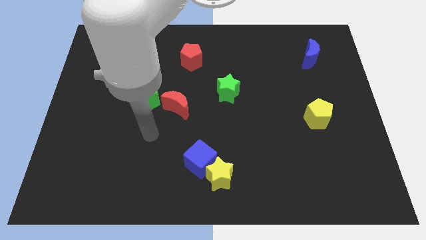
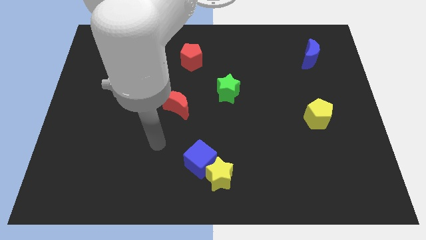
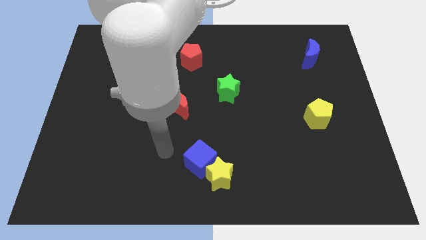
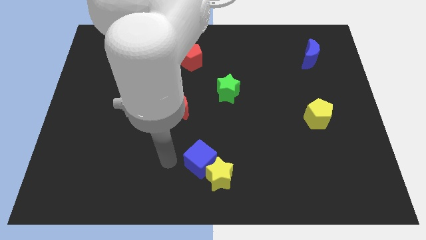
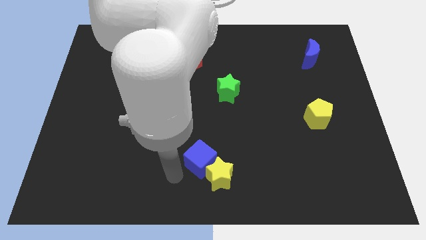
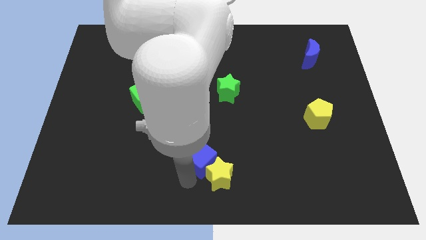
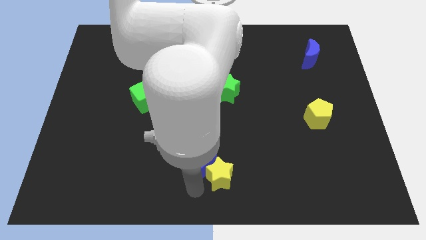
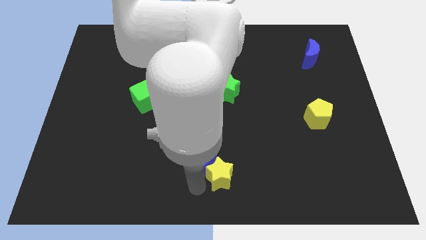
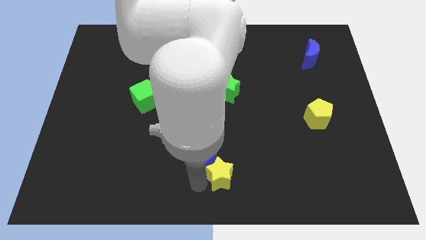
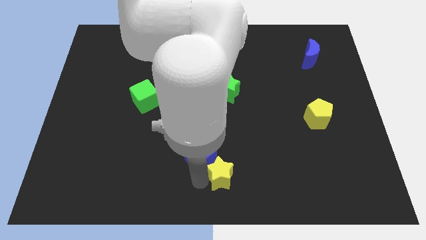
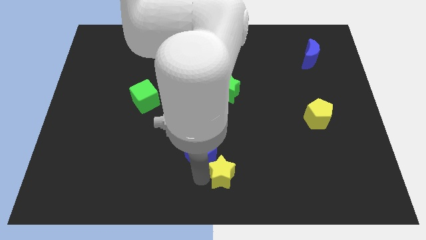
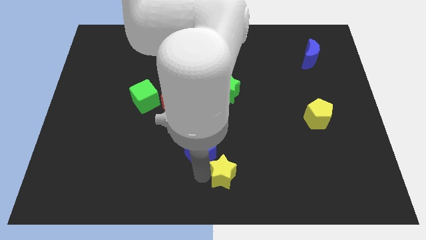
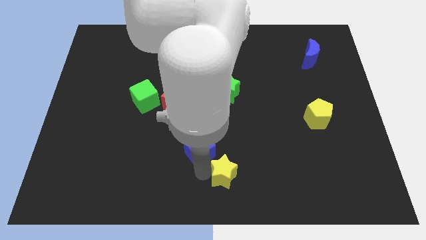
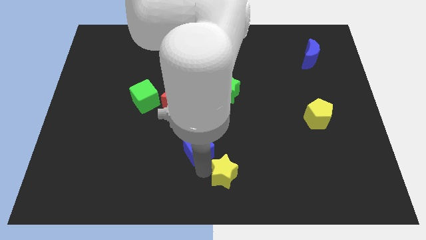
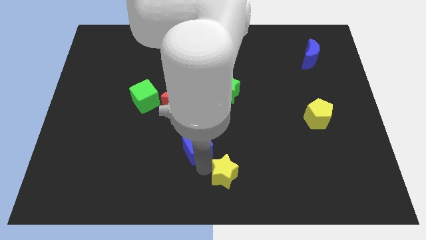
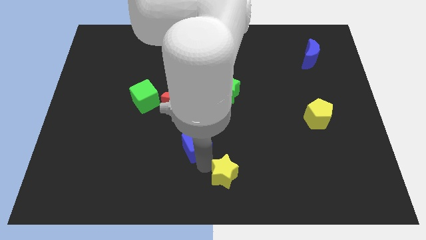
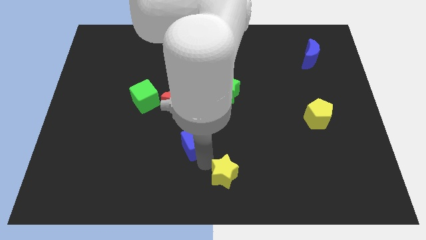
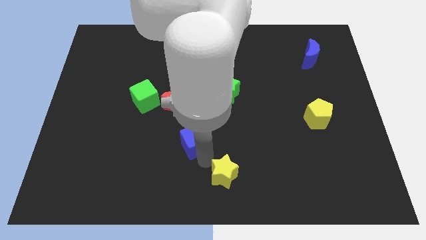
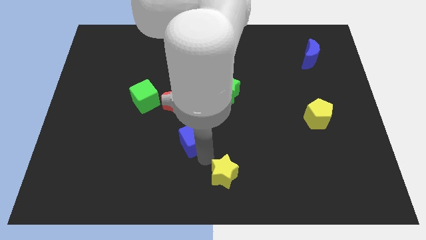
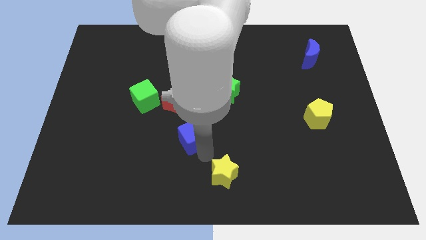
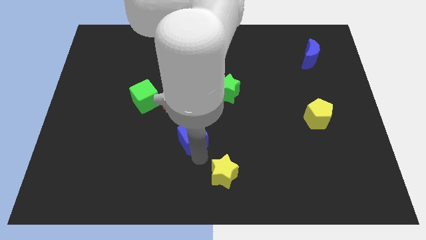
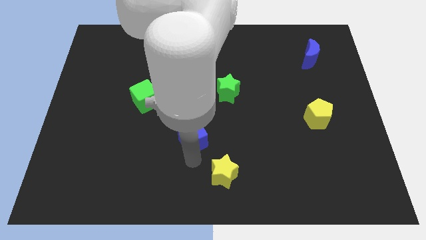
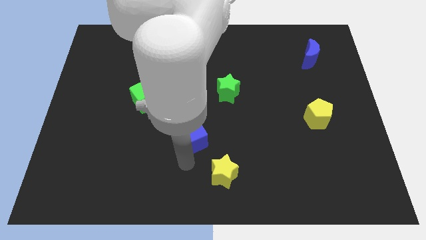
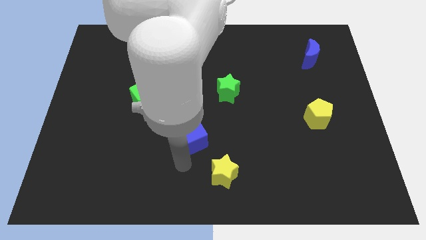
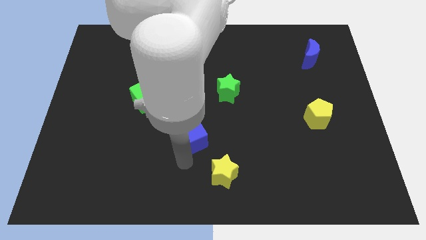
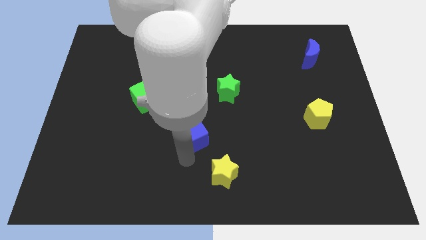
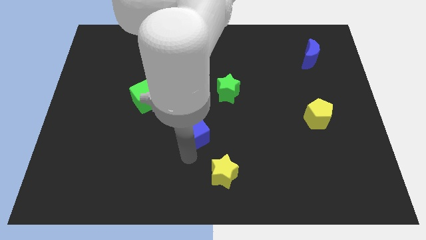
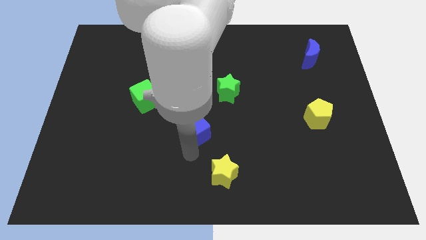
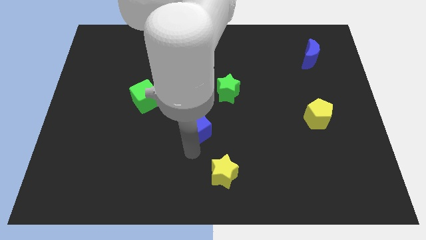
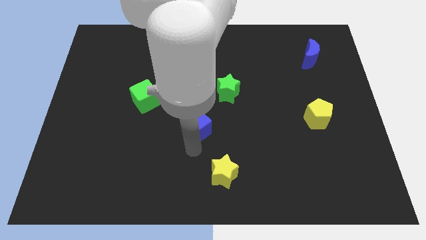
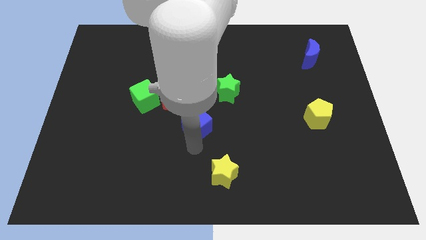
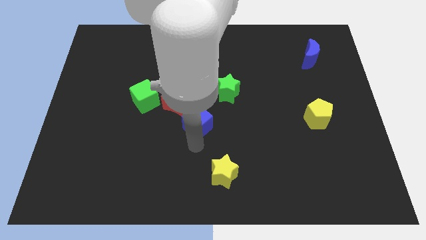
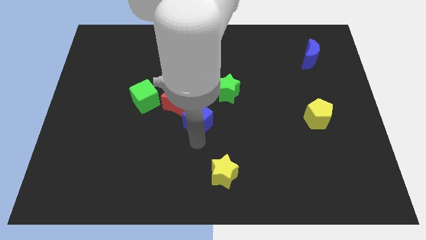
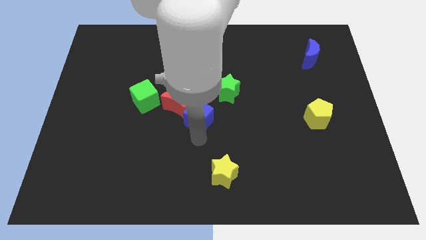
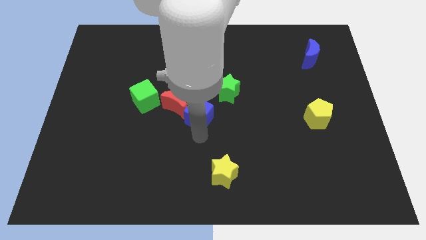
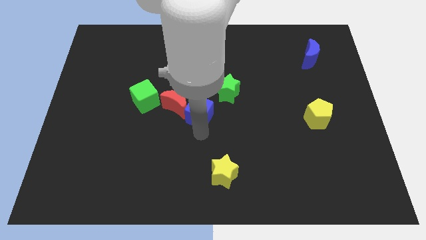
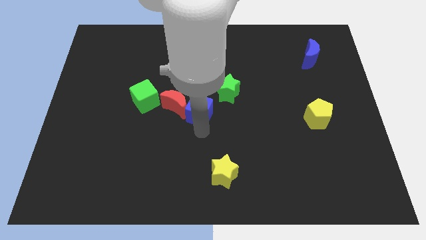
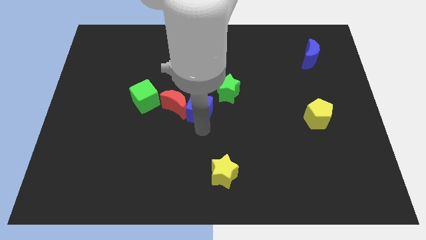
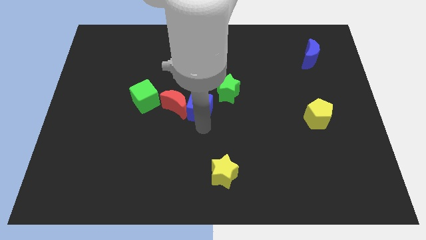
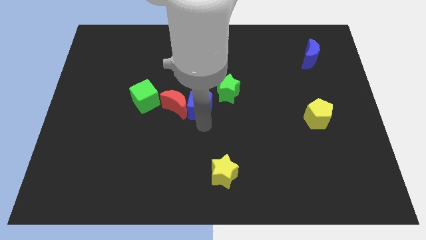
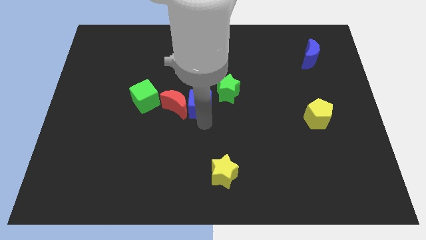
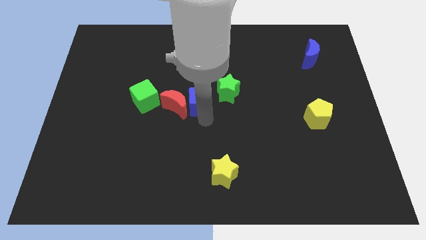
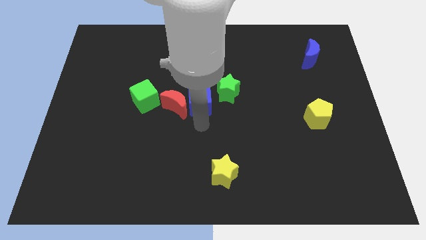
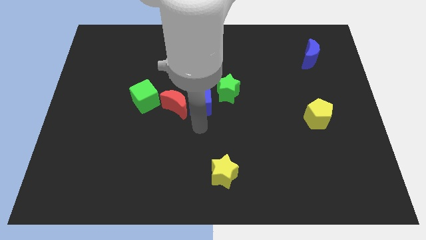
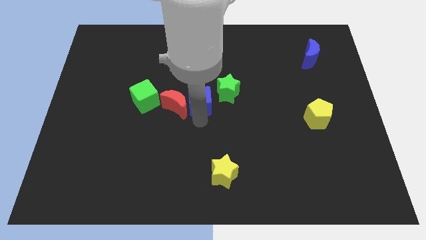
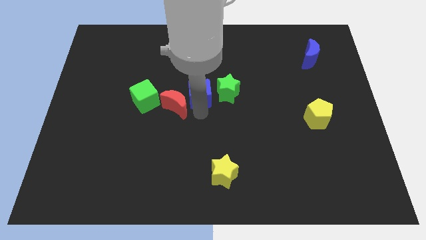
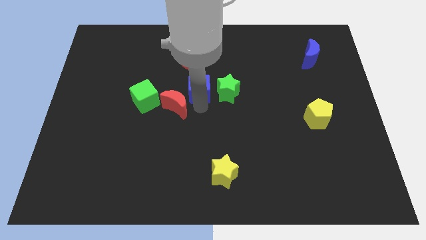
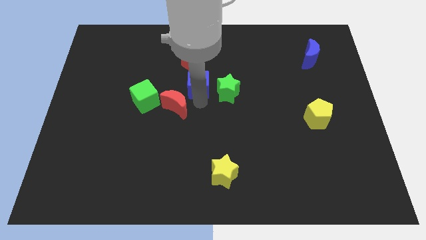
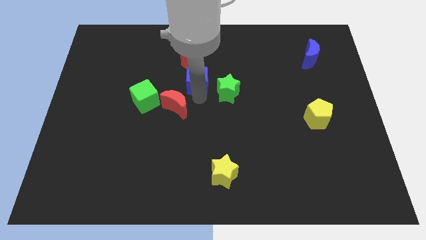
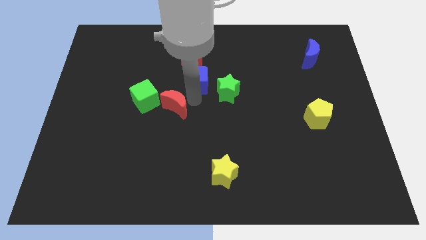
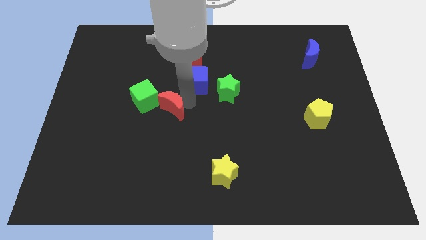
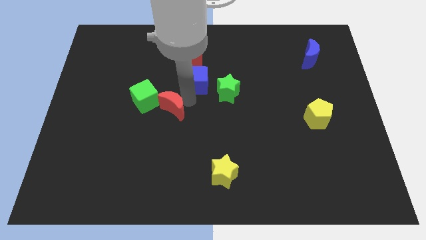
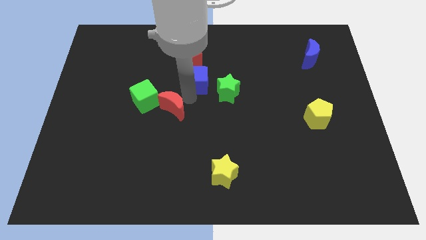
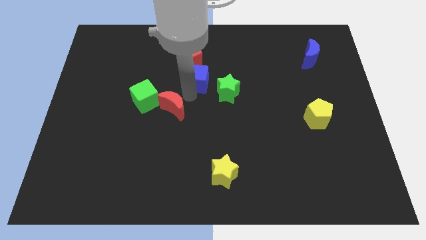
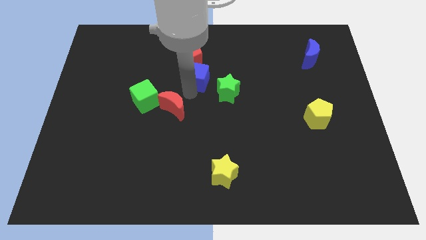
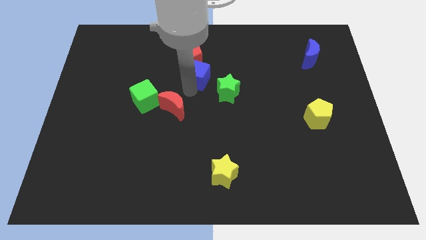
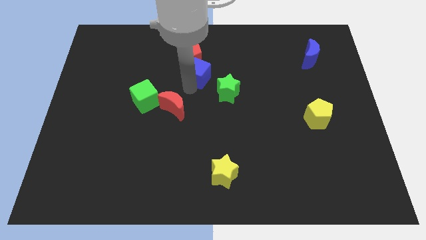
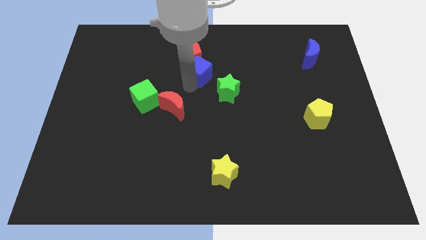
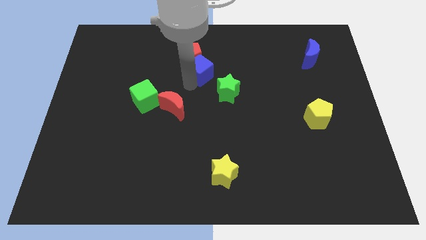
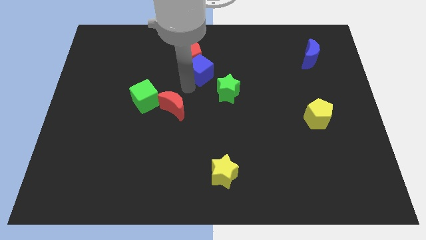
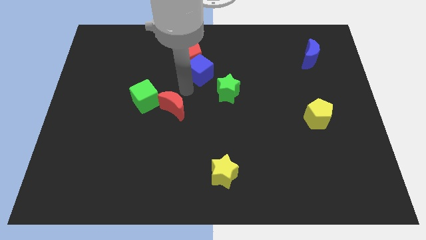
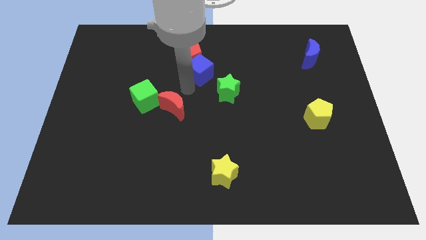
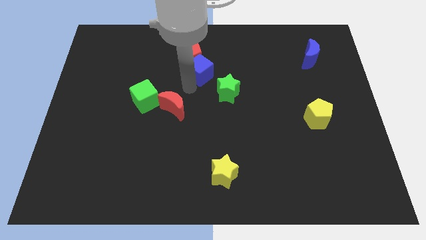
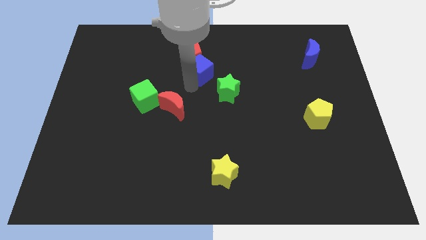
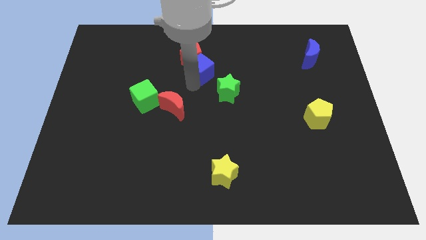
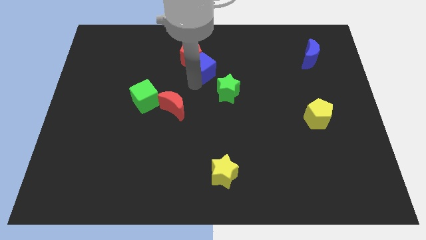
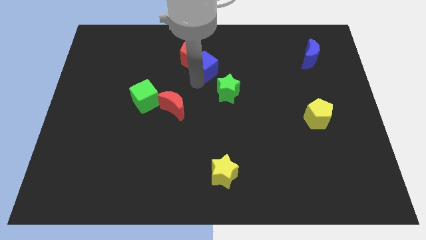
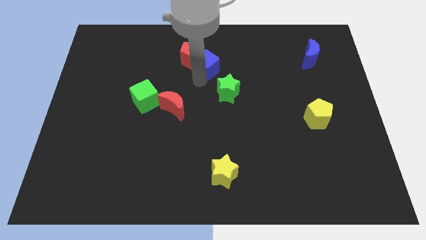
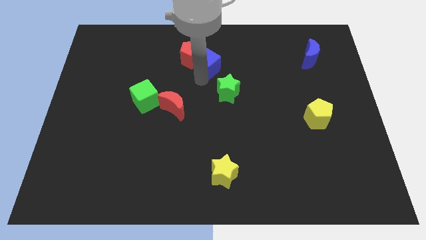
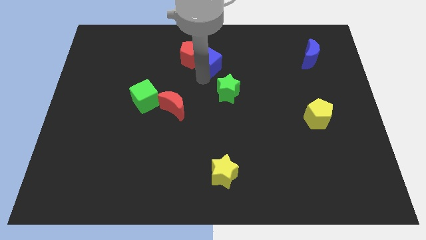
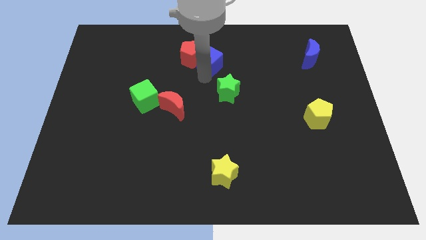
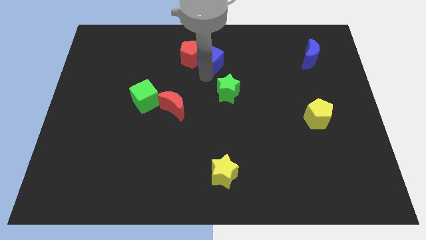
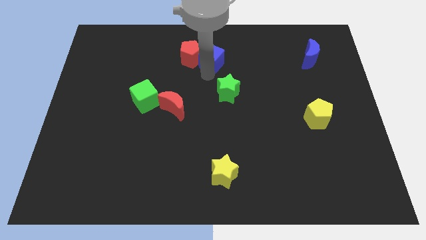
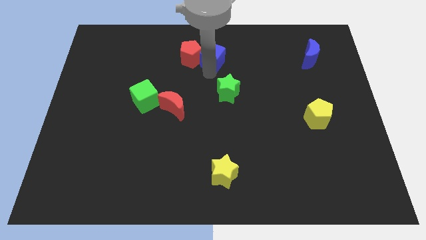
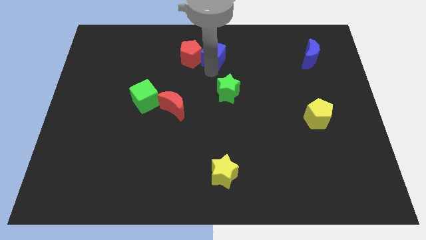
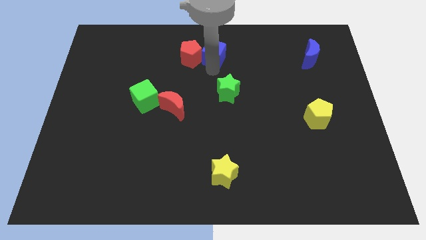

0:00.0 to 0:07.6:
slide the blue cube to the towards your base
